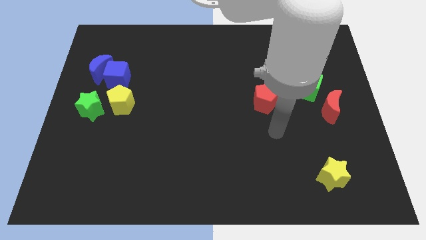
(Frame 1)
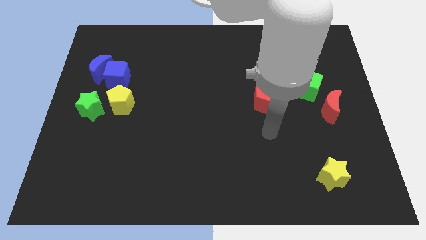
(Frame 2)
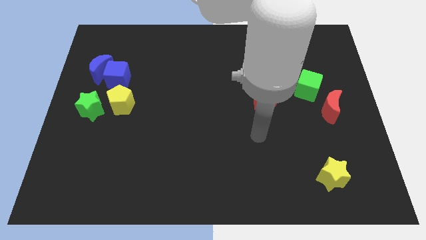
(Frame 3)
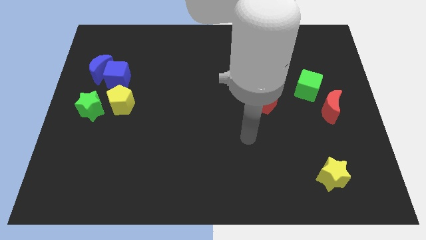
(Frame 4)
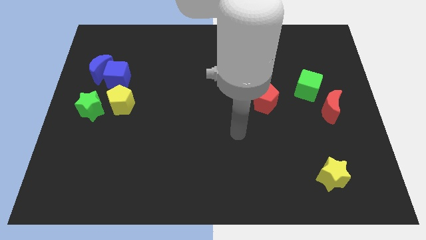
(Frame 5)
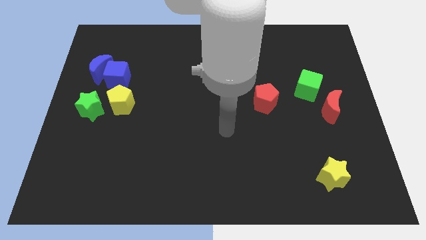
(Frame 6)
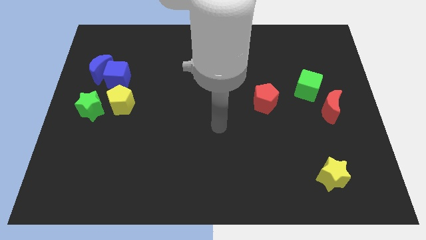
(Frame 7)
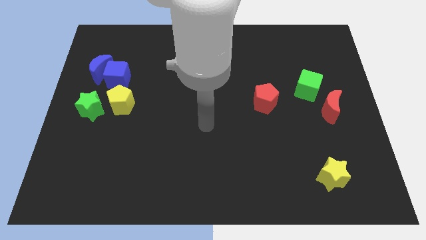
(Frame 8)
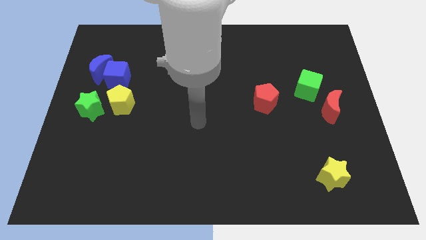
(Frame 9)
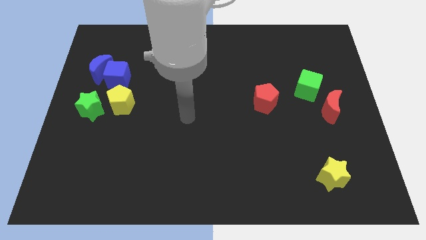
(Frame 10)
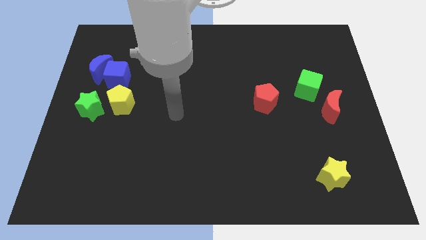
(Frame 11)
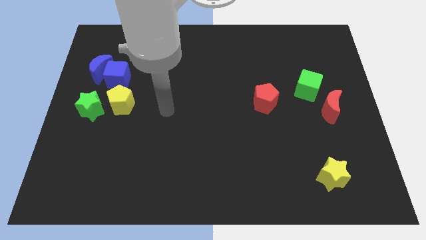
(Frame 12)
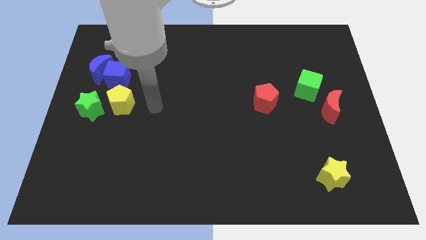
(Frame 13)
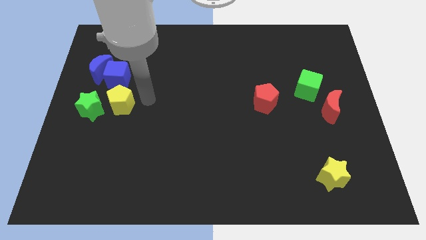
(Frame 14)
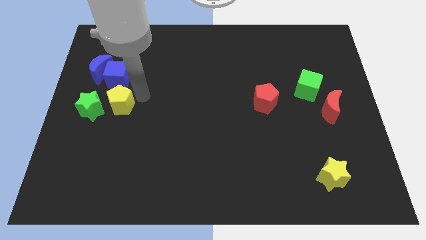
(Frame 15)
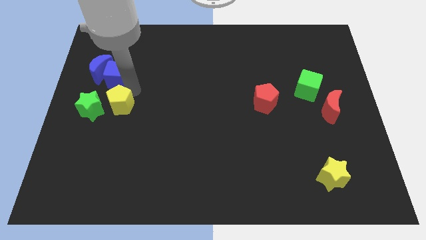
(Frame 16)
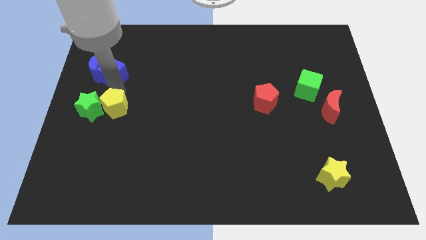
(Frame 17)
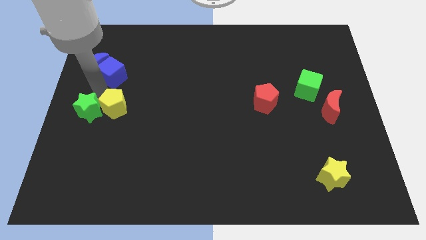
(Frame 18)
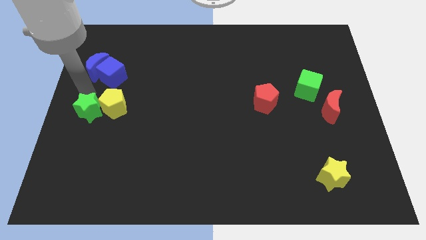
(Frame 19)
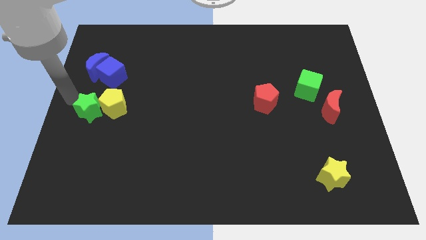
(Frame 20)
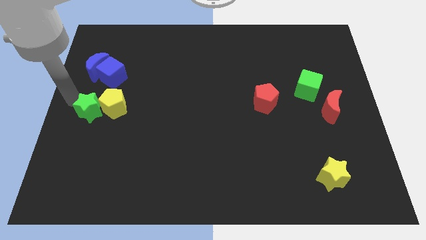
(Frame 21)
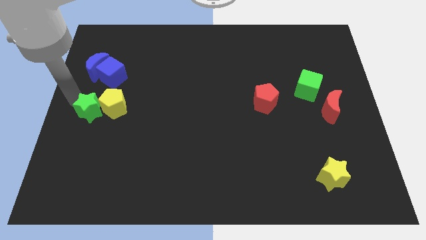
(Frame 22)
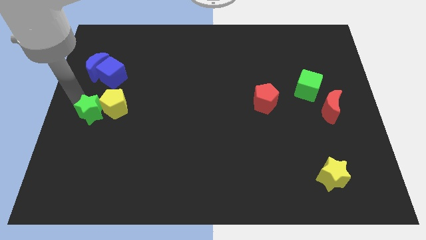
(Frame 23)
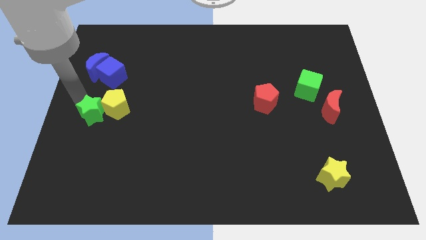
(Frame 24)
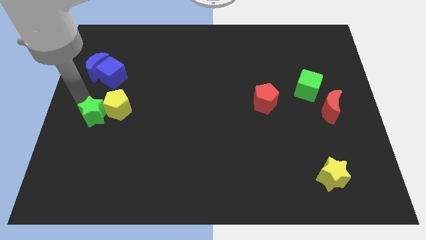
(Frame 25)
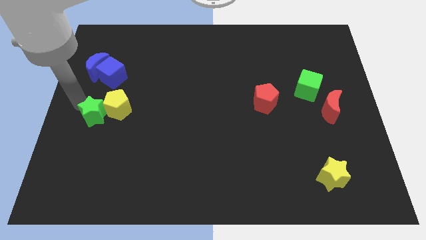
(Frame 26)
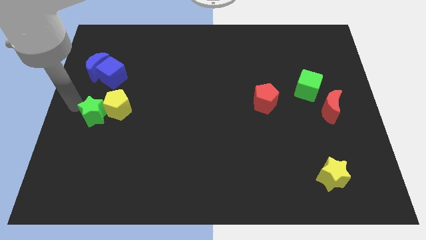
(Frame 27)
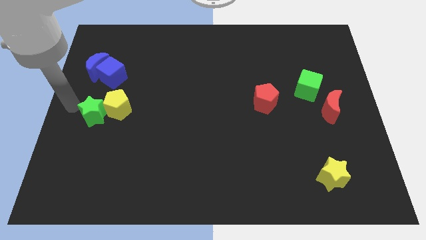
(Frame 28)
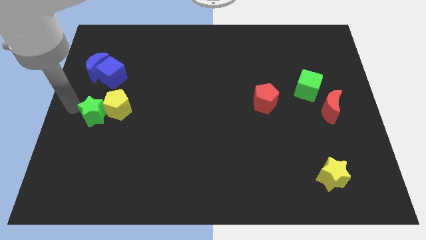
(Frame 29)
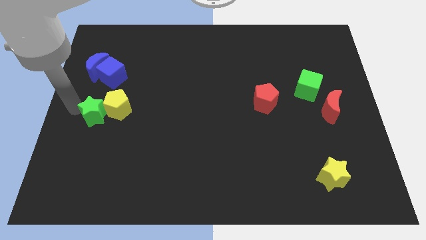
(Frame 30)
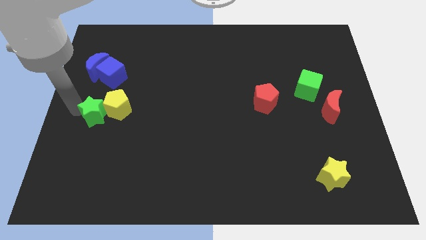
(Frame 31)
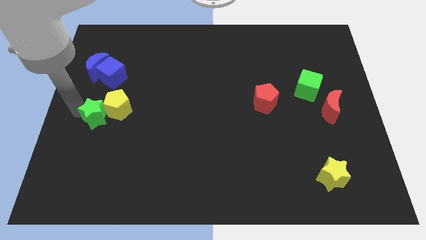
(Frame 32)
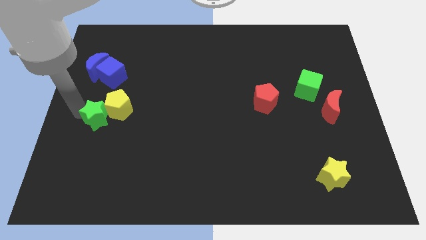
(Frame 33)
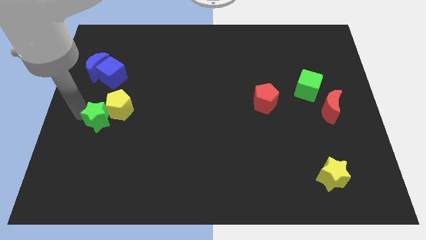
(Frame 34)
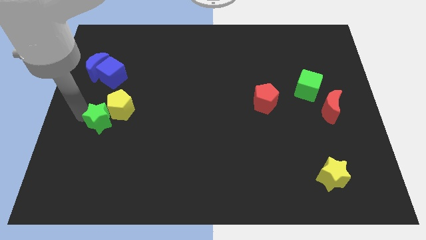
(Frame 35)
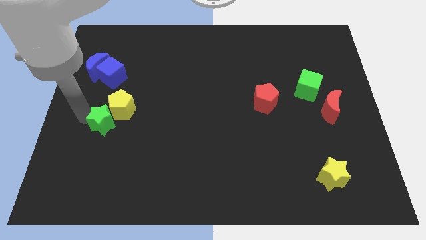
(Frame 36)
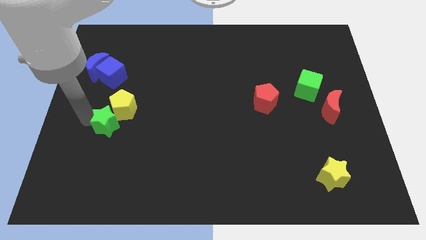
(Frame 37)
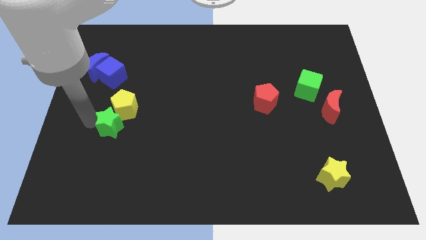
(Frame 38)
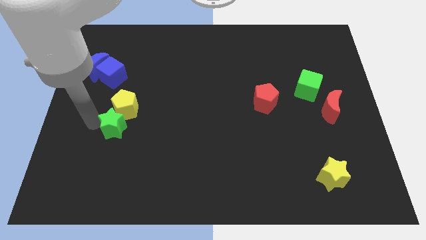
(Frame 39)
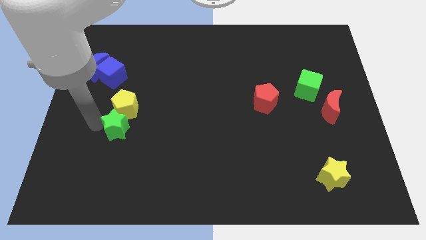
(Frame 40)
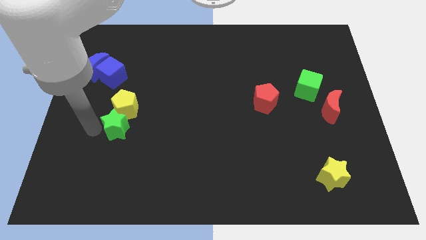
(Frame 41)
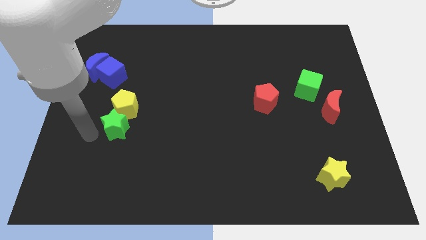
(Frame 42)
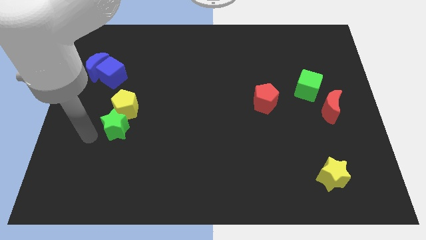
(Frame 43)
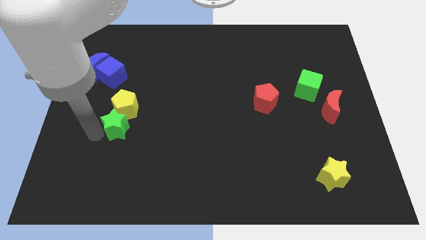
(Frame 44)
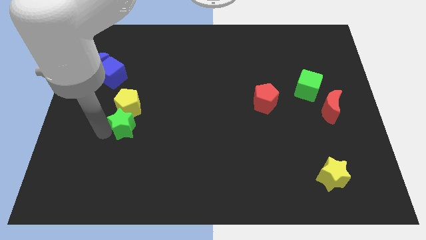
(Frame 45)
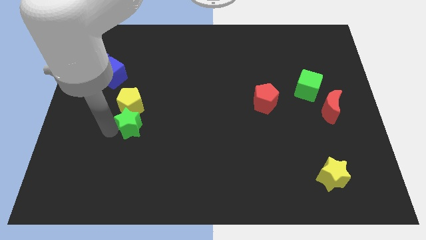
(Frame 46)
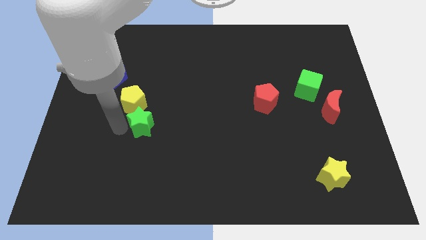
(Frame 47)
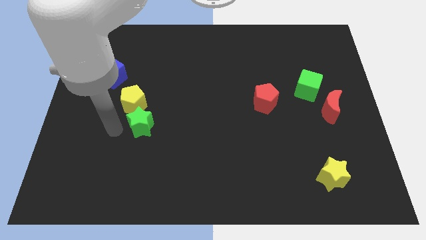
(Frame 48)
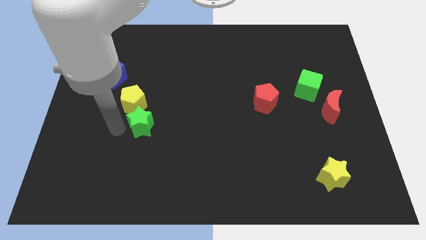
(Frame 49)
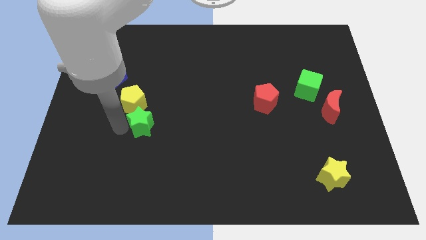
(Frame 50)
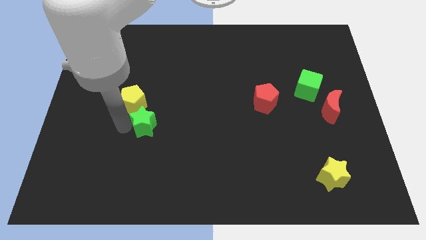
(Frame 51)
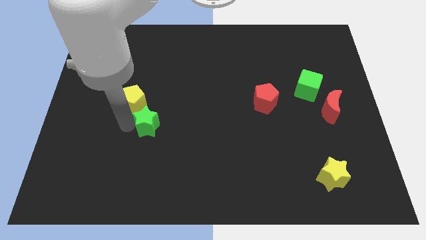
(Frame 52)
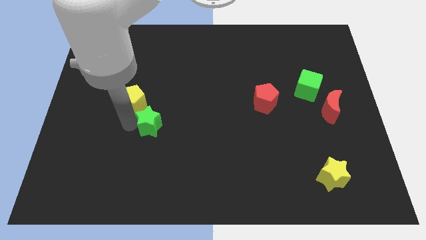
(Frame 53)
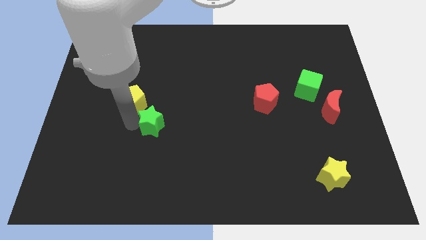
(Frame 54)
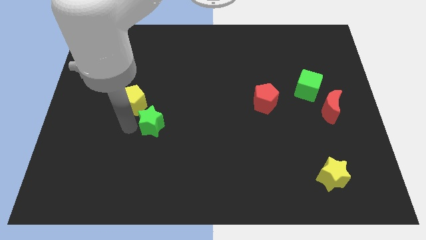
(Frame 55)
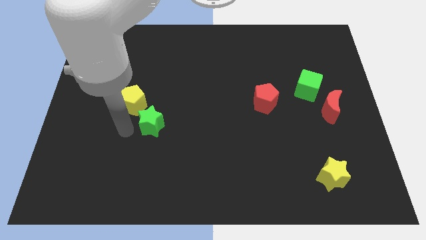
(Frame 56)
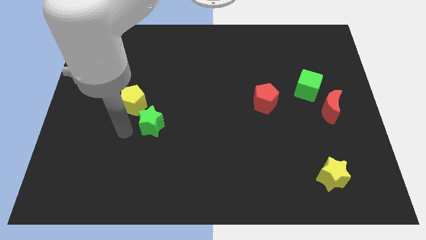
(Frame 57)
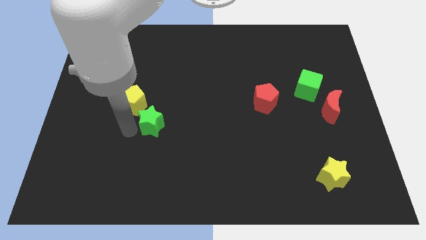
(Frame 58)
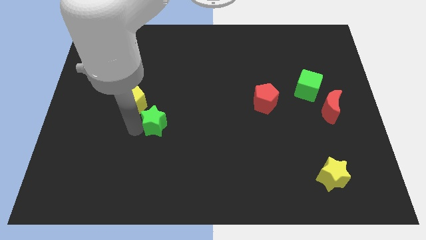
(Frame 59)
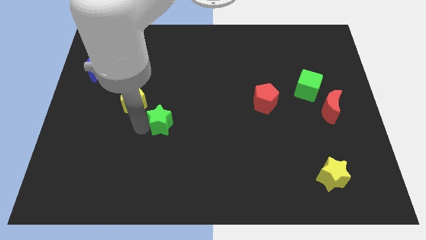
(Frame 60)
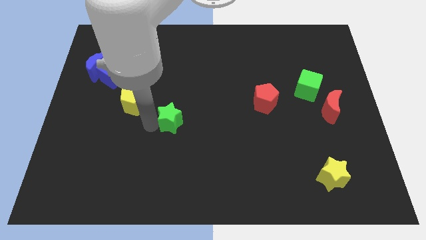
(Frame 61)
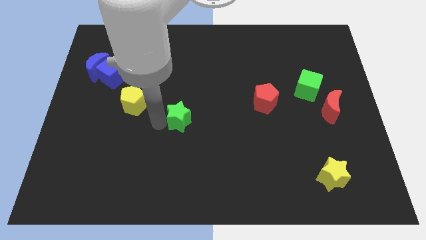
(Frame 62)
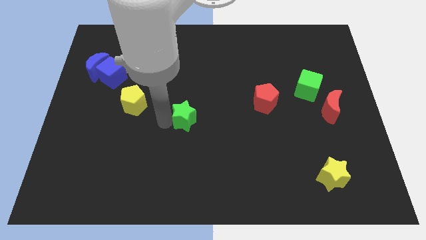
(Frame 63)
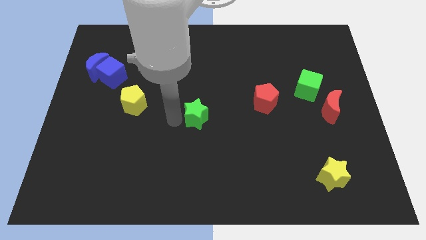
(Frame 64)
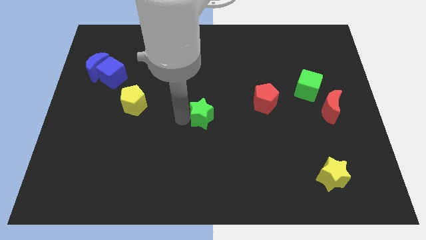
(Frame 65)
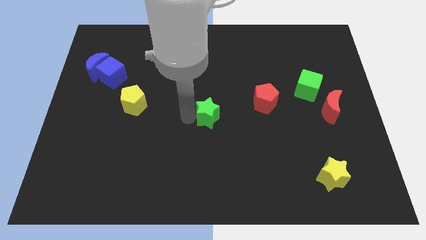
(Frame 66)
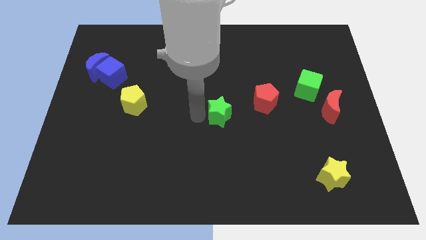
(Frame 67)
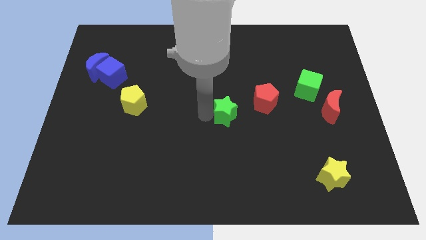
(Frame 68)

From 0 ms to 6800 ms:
move the green star diagonally down and to the left of the red pentagon

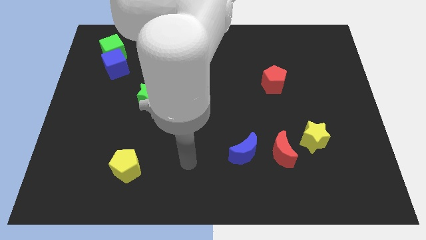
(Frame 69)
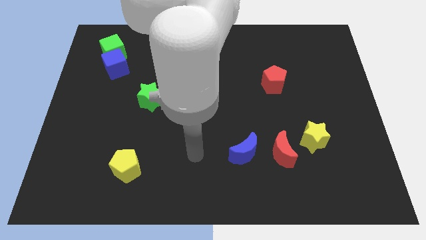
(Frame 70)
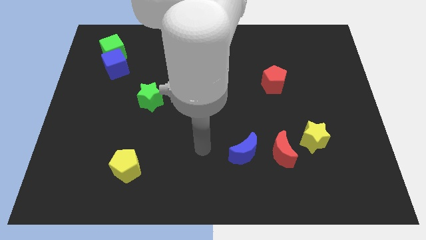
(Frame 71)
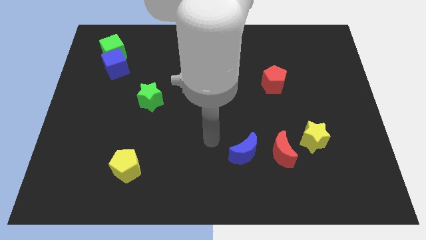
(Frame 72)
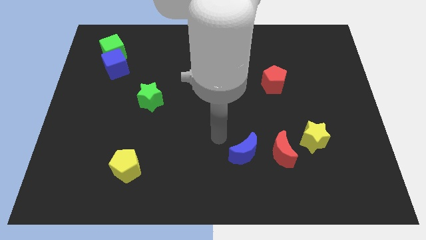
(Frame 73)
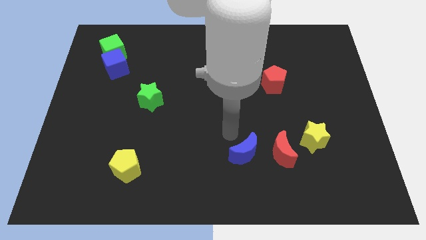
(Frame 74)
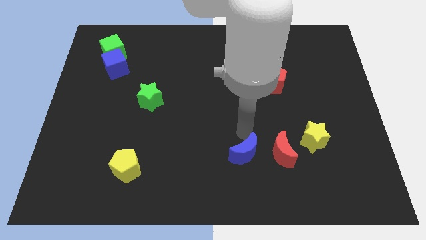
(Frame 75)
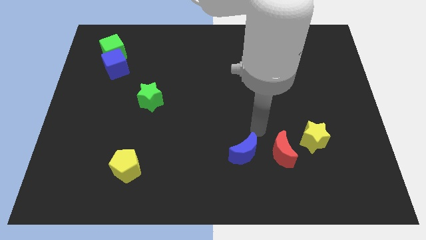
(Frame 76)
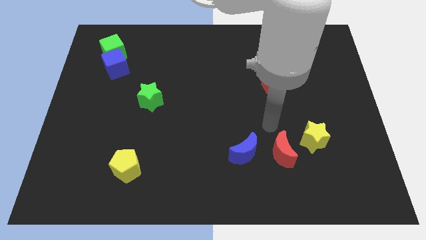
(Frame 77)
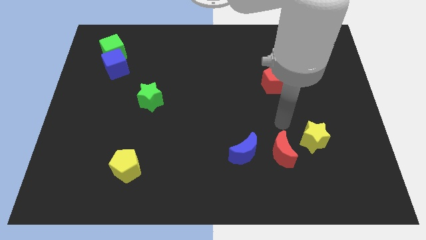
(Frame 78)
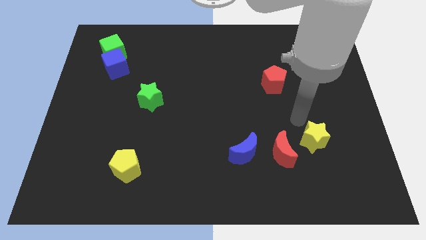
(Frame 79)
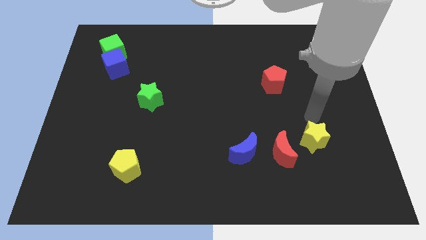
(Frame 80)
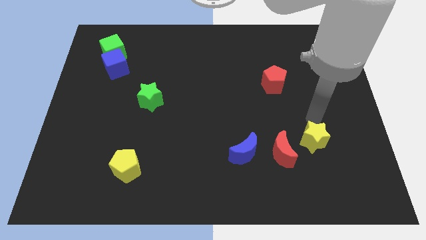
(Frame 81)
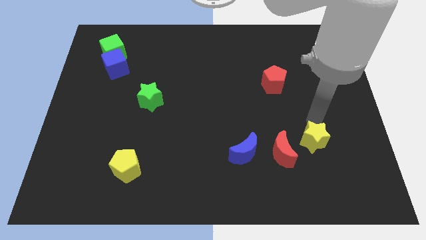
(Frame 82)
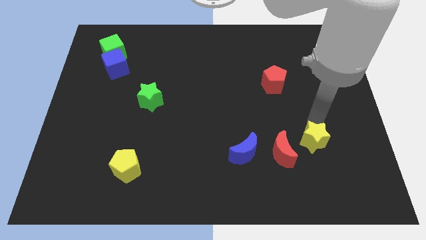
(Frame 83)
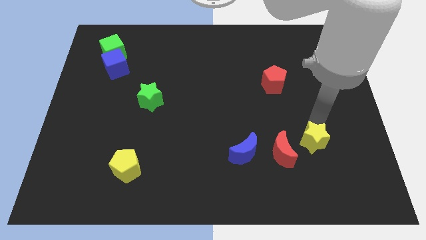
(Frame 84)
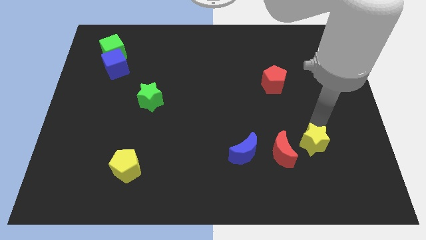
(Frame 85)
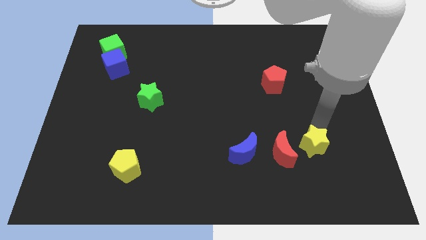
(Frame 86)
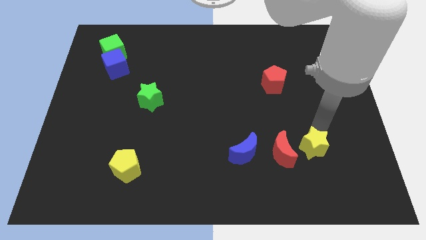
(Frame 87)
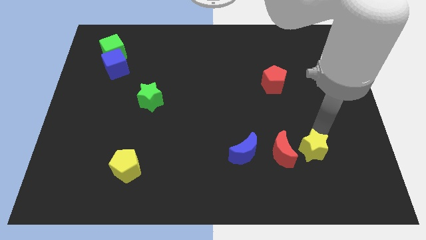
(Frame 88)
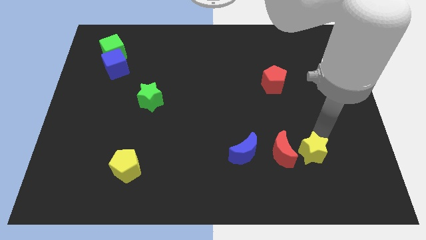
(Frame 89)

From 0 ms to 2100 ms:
push the yellow star to the bottom right side of the red moon
